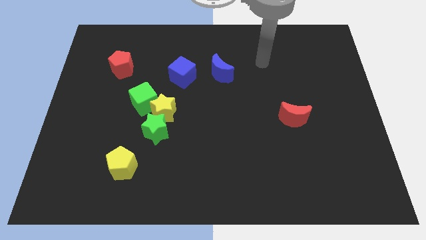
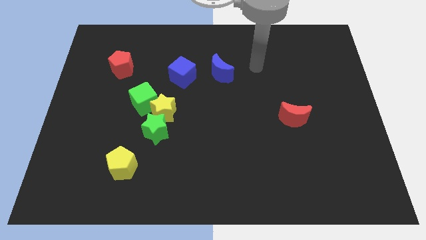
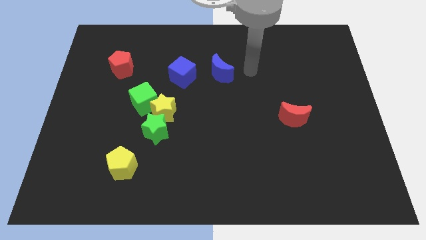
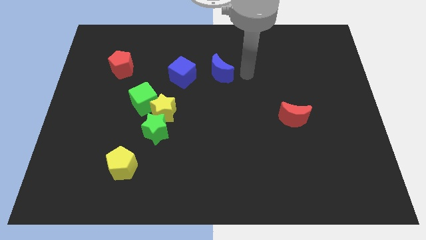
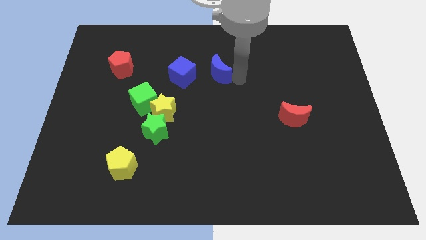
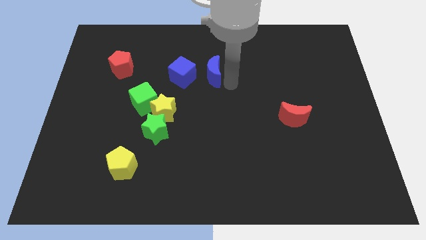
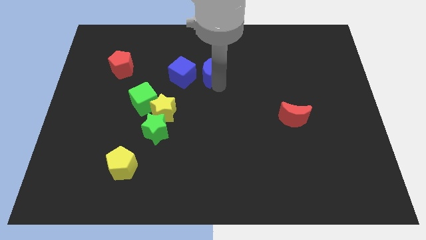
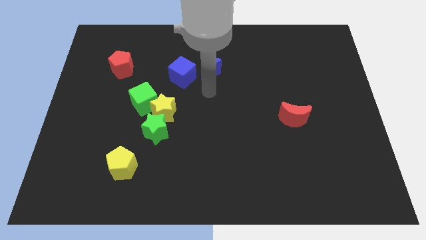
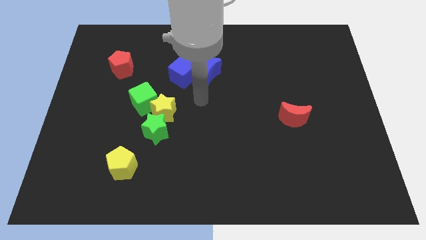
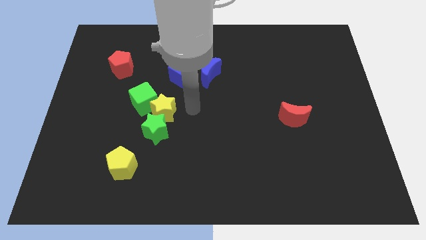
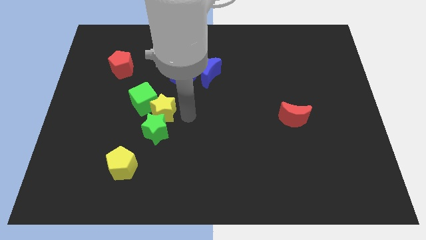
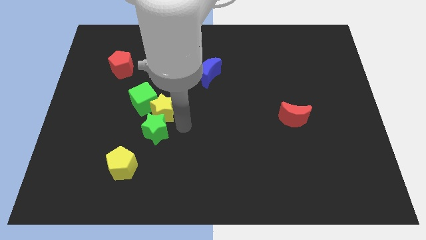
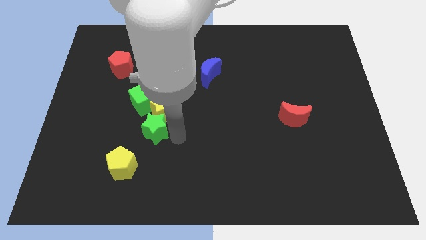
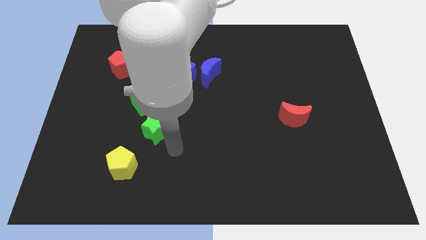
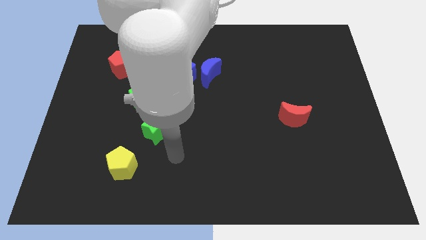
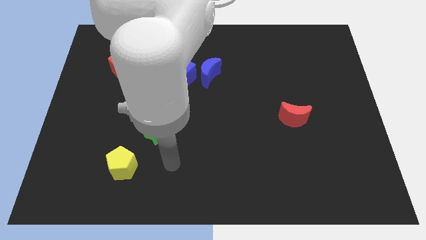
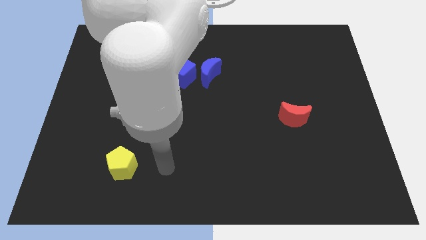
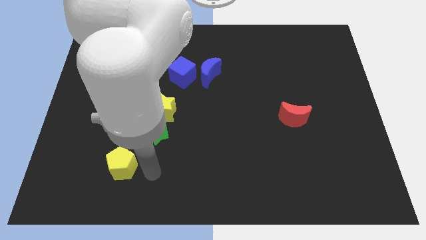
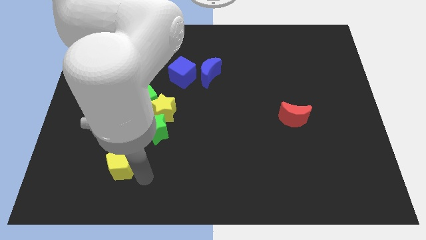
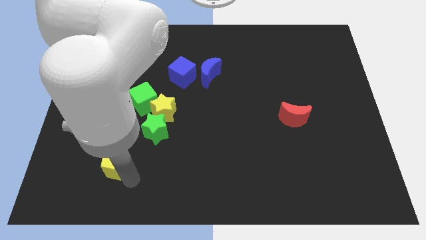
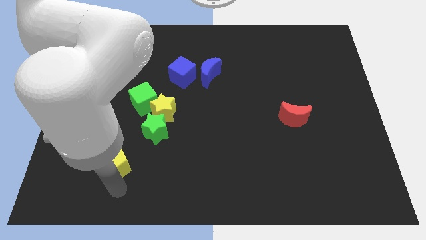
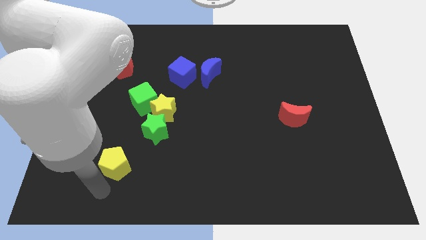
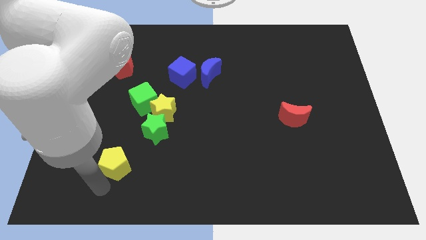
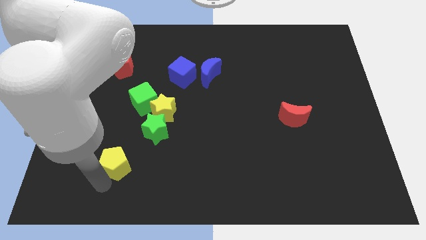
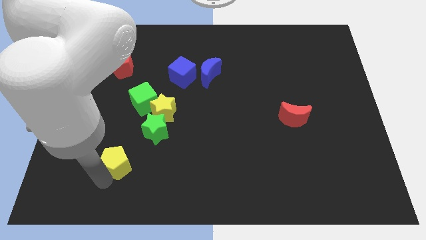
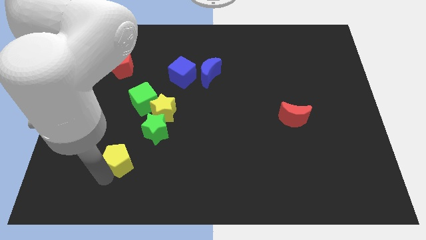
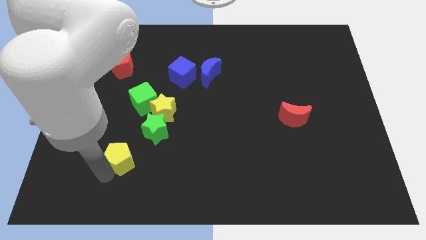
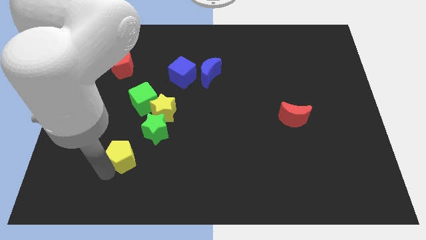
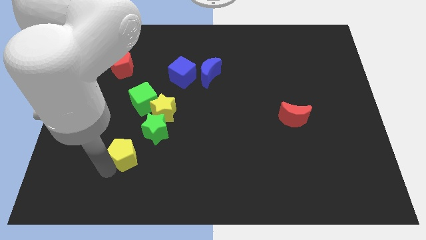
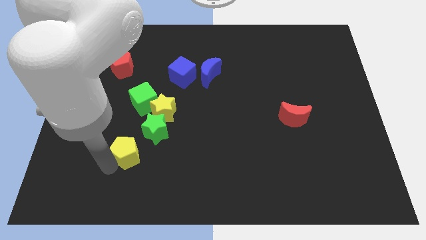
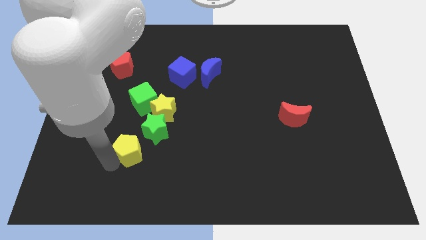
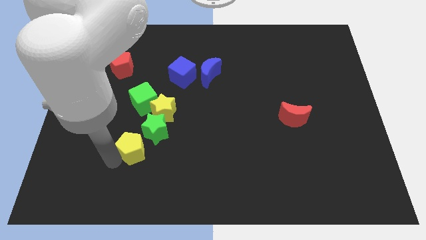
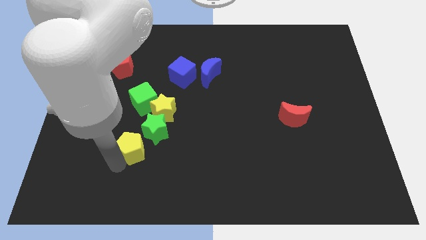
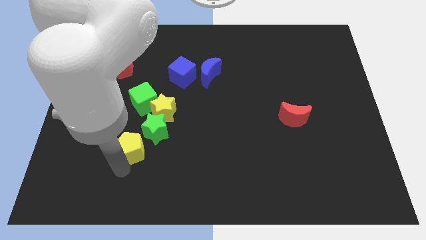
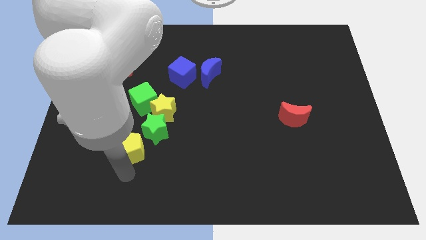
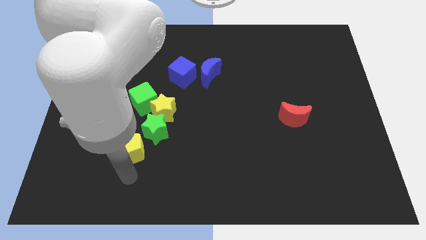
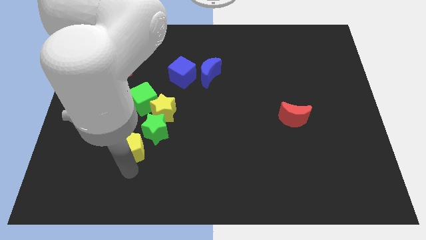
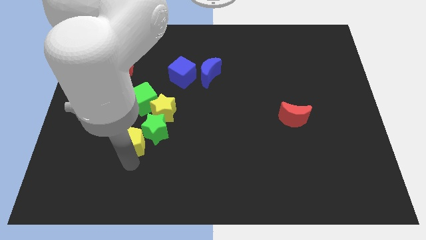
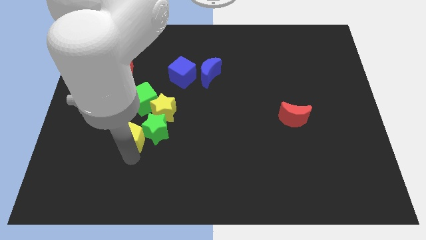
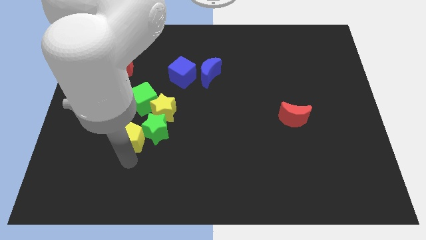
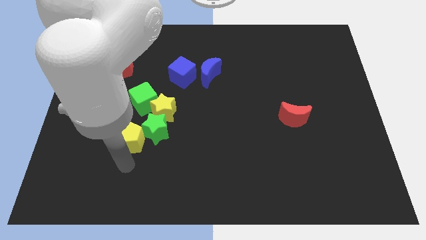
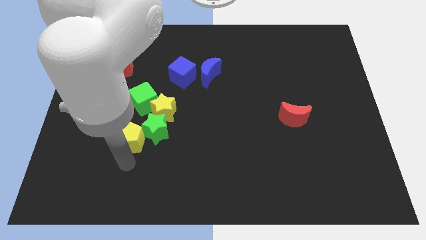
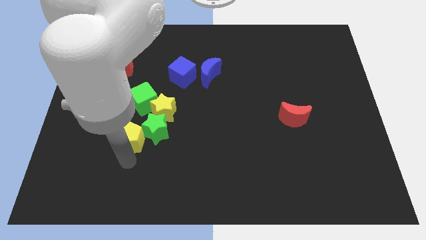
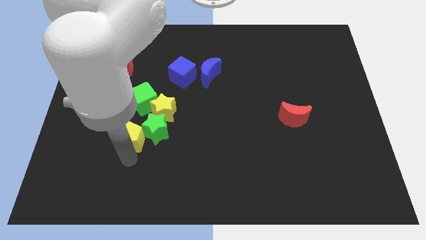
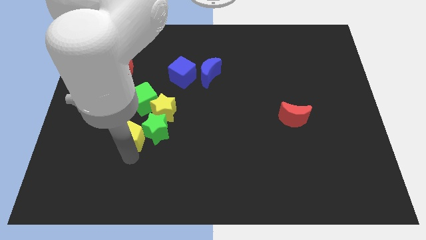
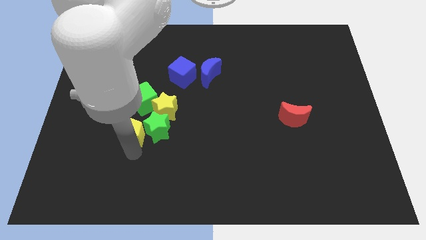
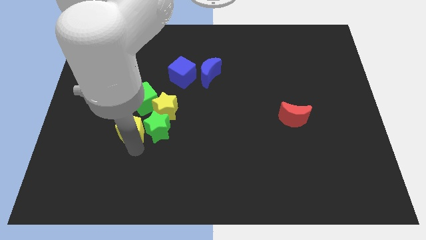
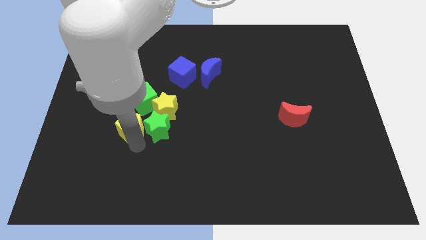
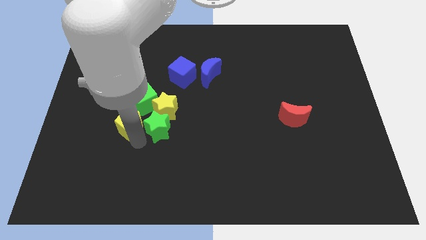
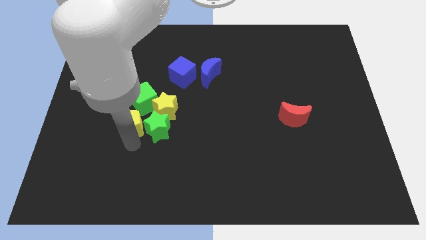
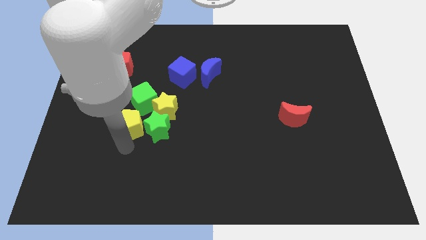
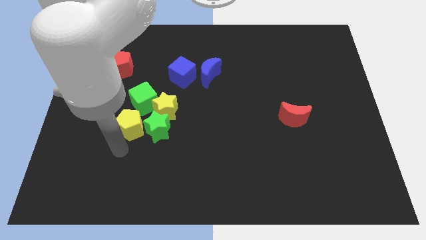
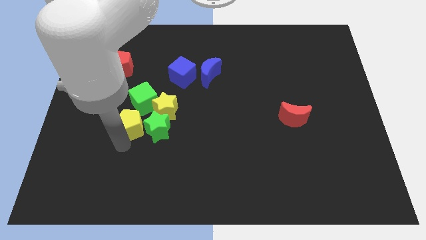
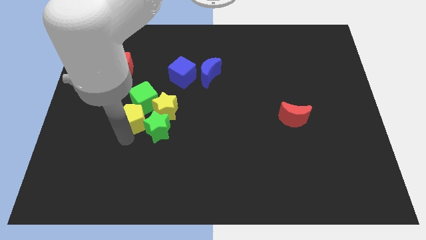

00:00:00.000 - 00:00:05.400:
push the yellow pentagon towards the green cube

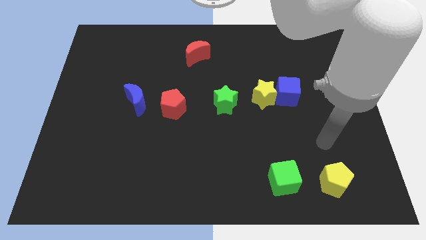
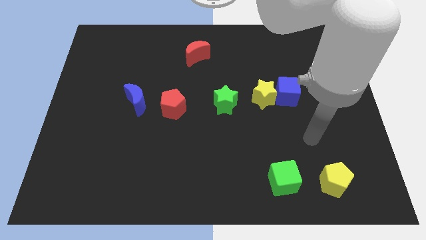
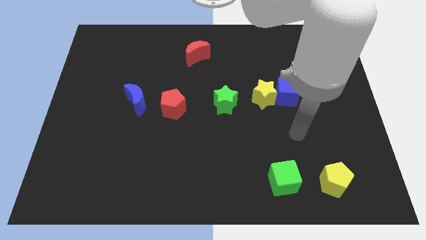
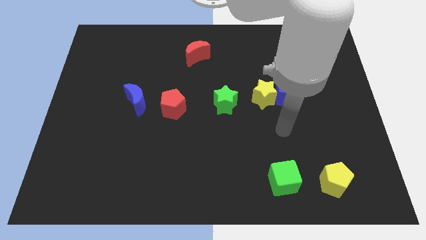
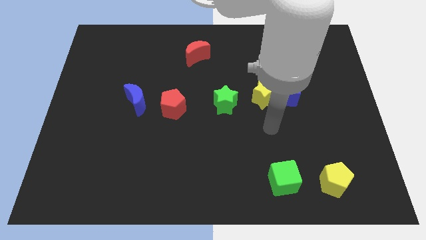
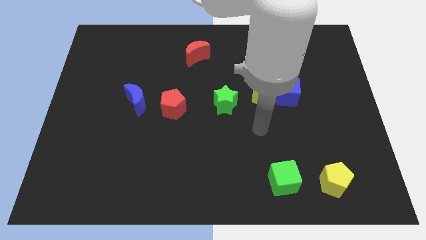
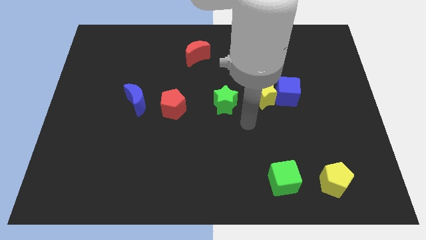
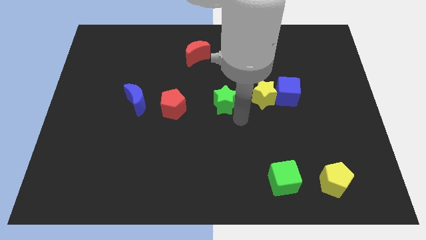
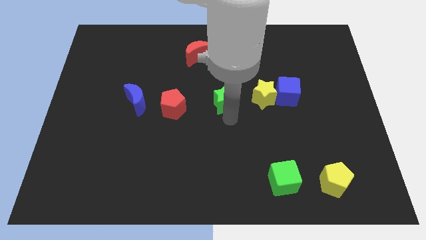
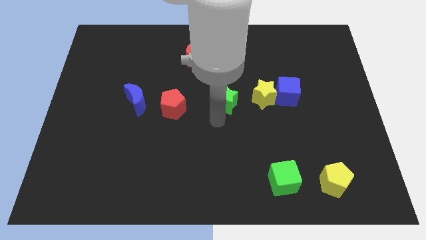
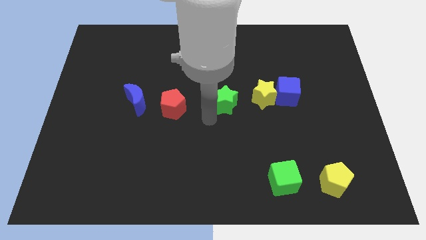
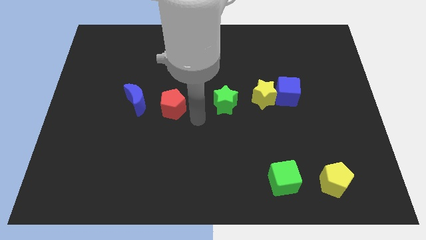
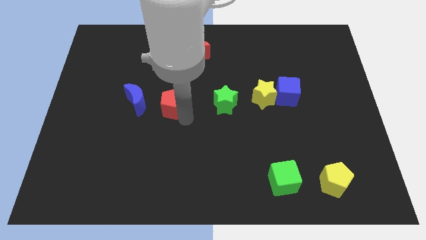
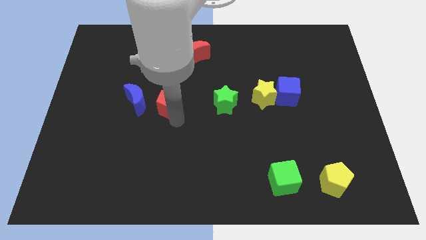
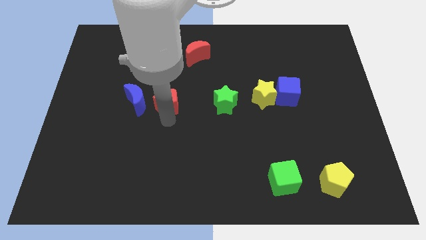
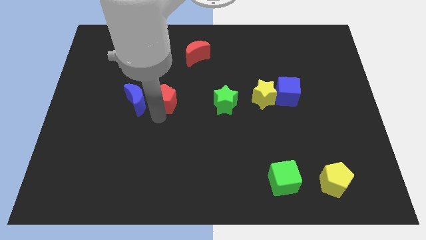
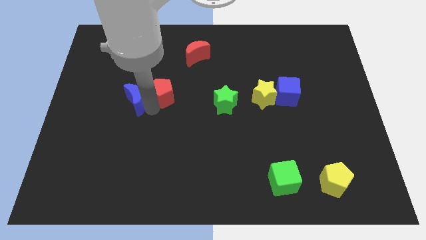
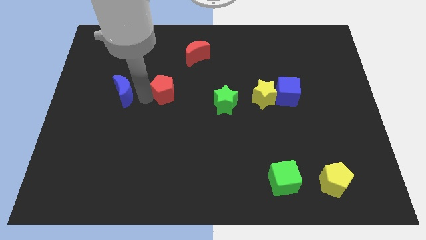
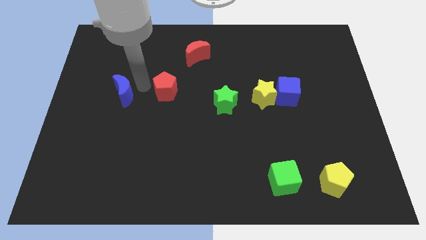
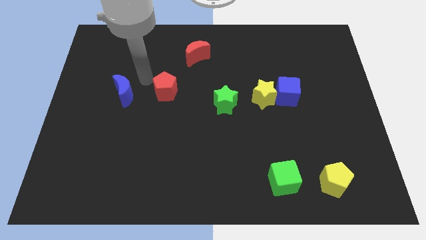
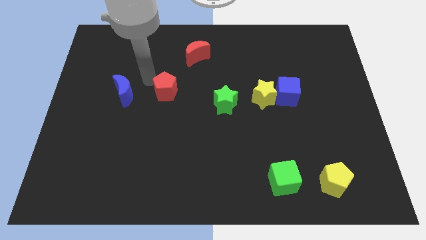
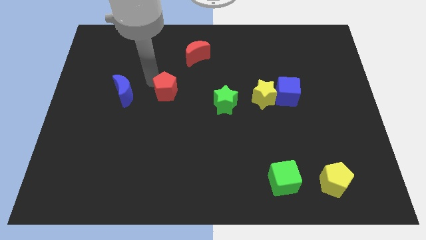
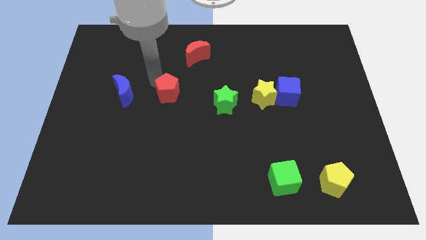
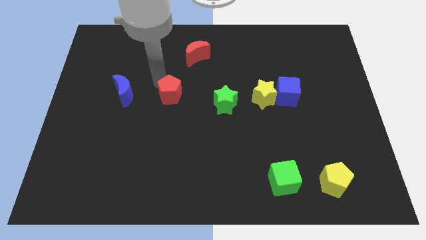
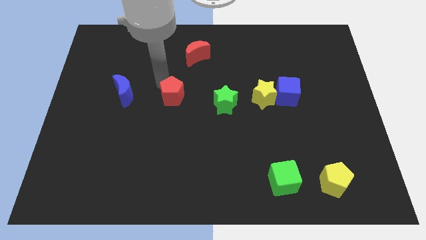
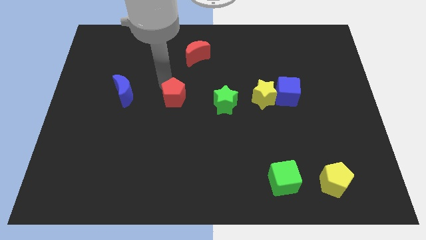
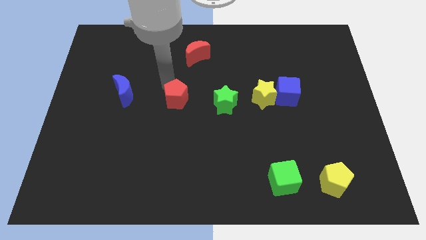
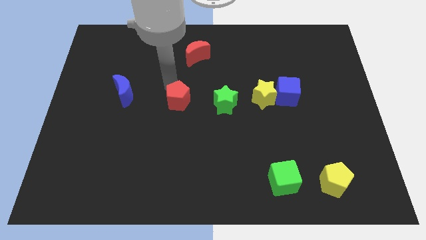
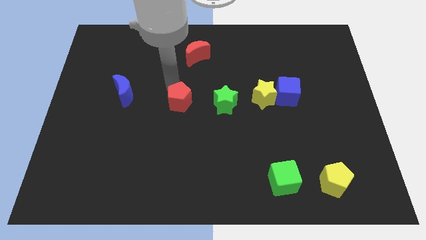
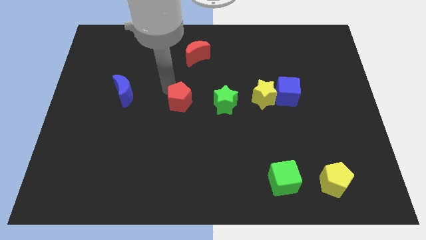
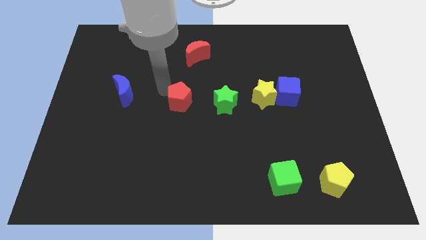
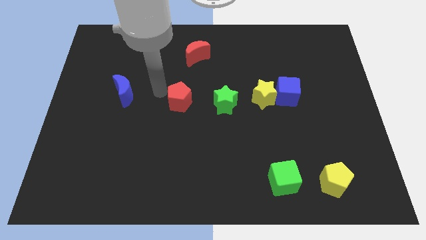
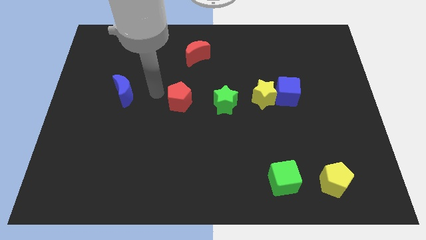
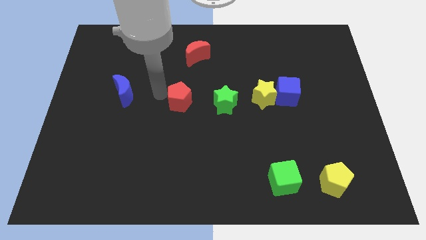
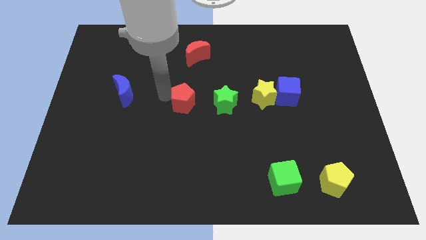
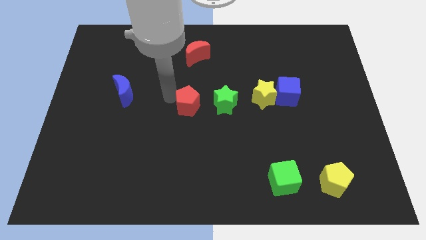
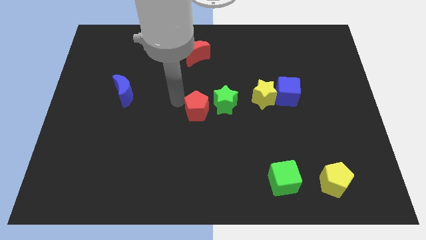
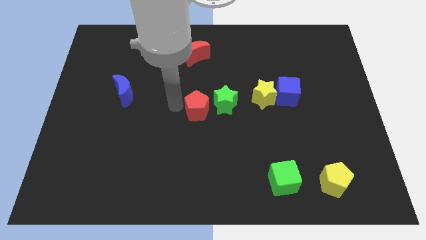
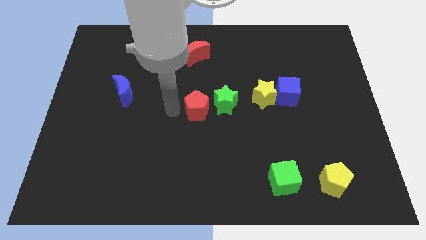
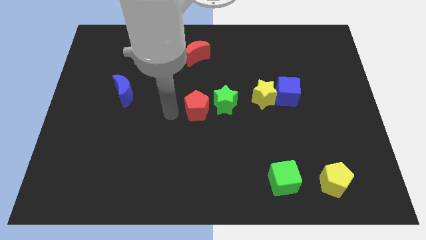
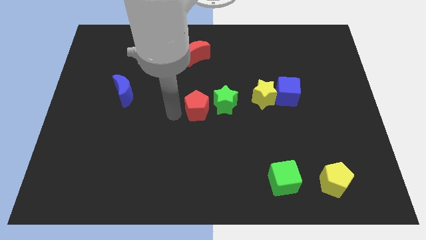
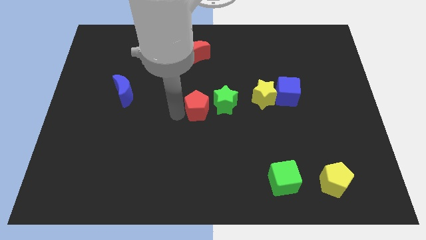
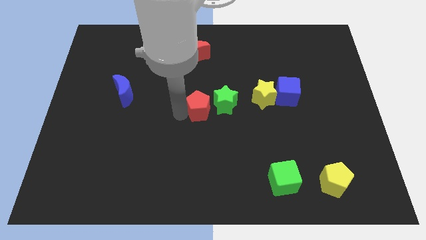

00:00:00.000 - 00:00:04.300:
slide the red pentagon towards the green star
